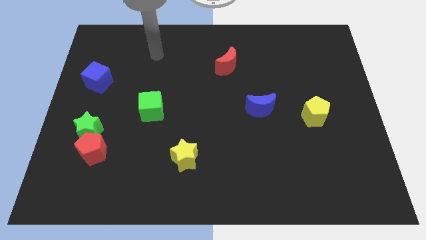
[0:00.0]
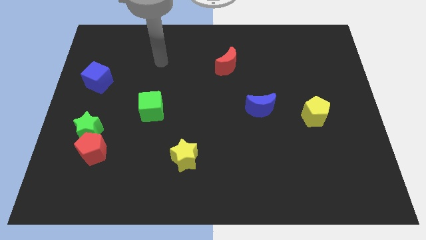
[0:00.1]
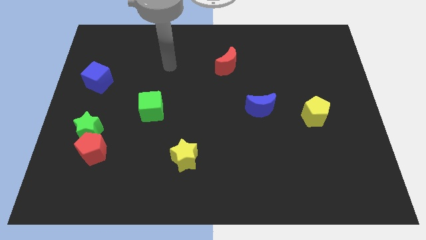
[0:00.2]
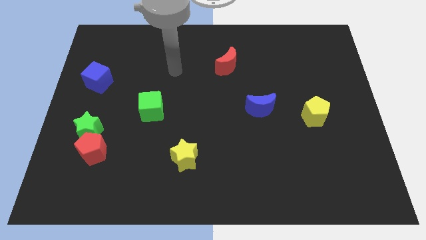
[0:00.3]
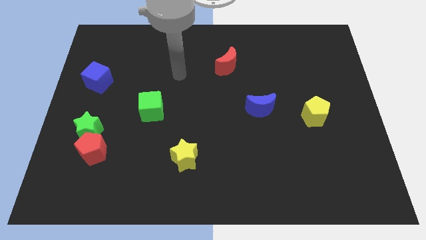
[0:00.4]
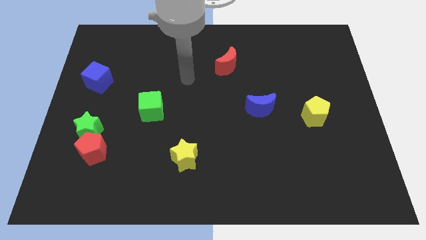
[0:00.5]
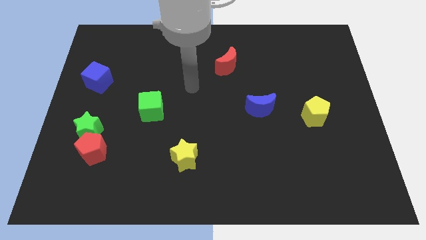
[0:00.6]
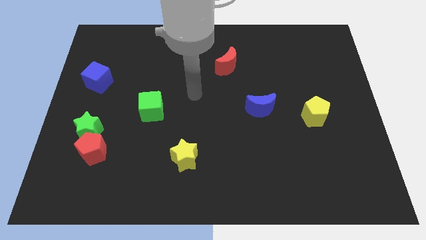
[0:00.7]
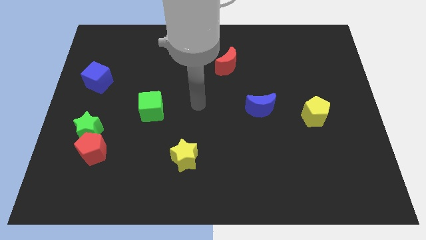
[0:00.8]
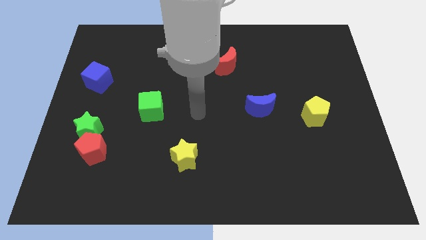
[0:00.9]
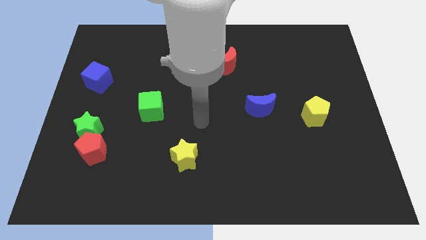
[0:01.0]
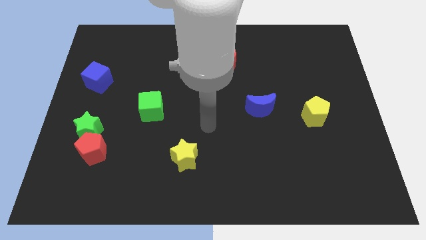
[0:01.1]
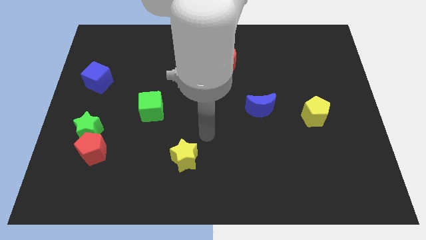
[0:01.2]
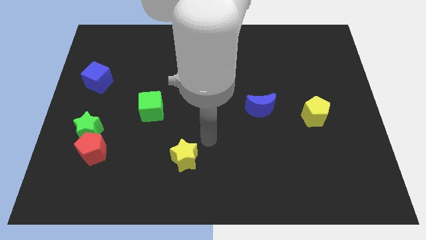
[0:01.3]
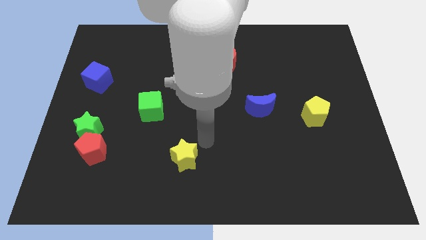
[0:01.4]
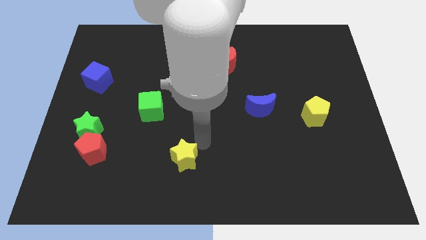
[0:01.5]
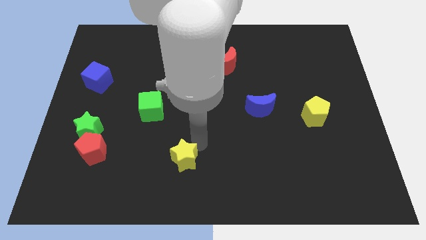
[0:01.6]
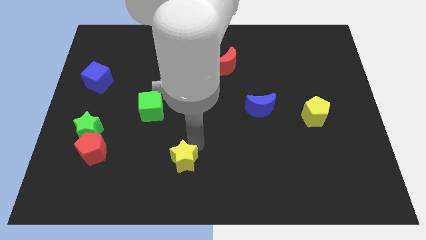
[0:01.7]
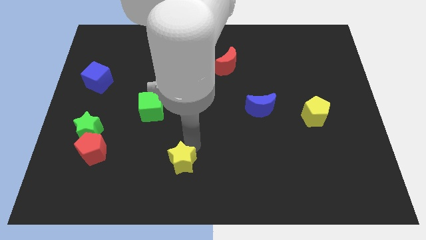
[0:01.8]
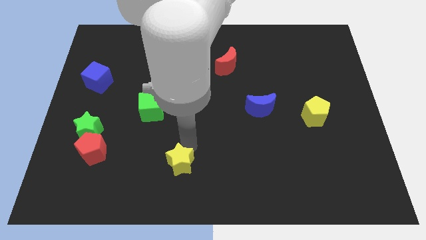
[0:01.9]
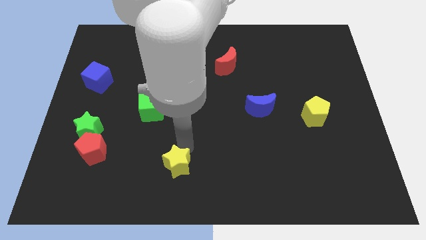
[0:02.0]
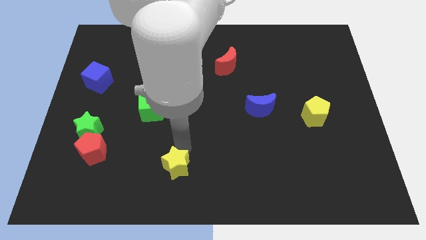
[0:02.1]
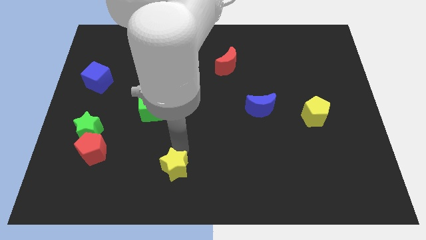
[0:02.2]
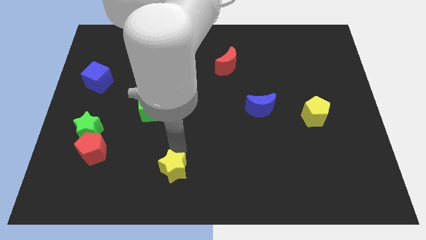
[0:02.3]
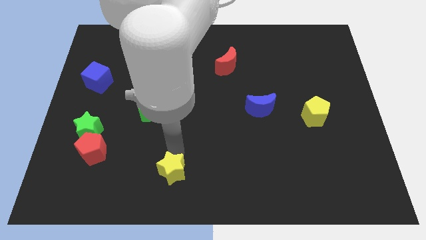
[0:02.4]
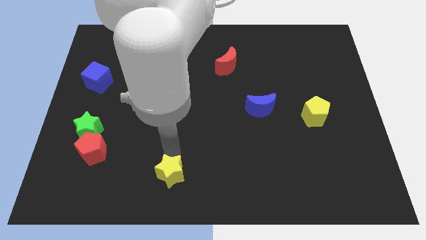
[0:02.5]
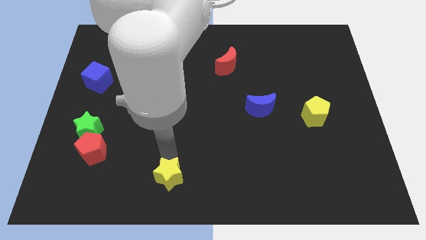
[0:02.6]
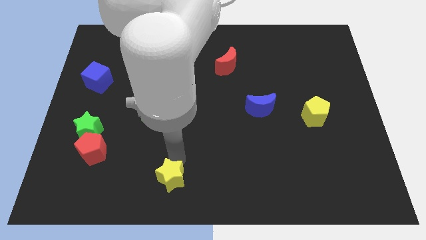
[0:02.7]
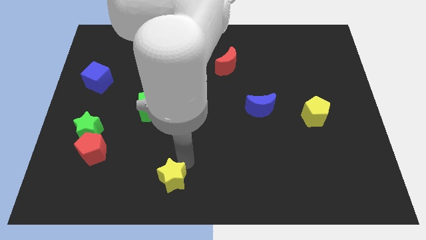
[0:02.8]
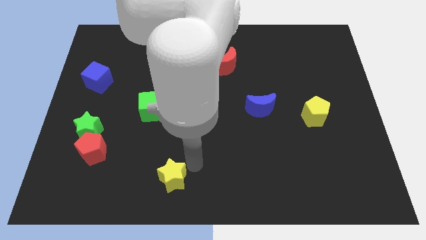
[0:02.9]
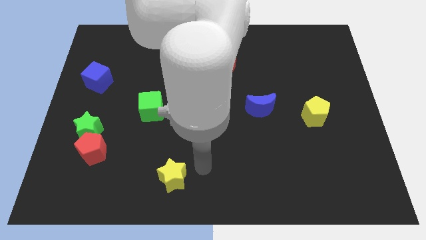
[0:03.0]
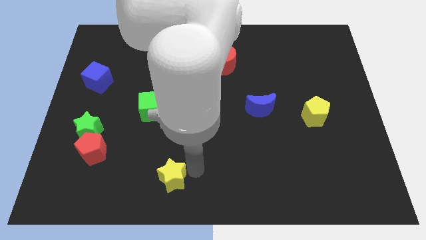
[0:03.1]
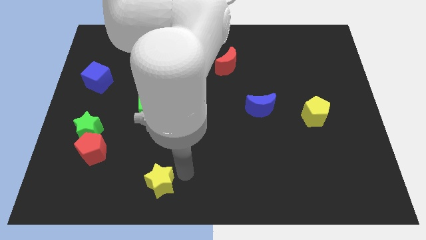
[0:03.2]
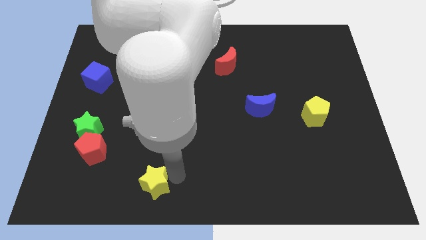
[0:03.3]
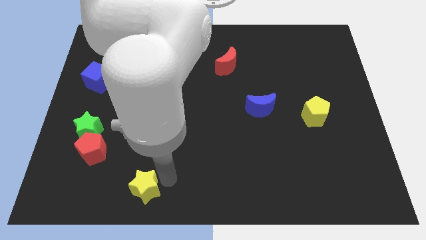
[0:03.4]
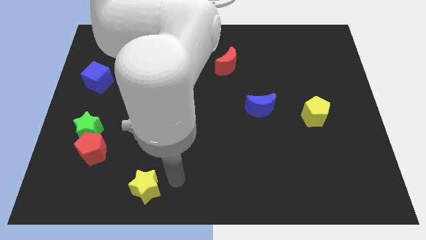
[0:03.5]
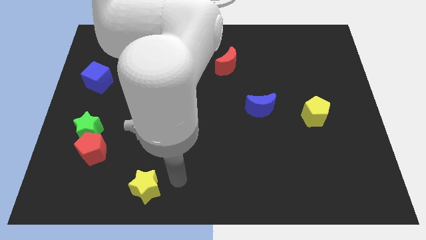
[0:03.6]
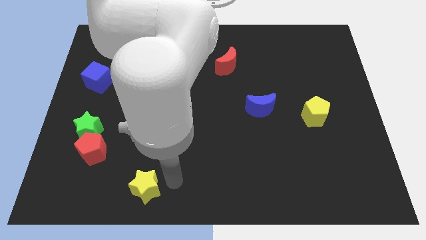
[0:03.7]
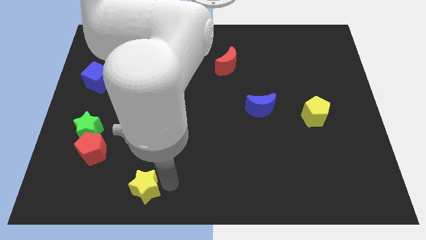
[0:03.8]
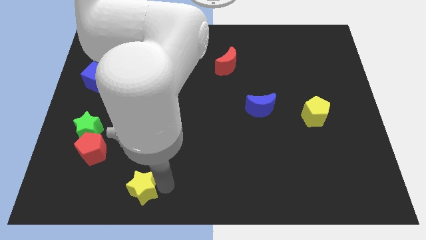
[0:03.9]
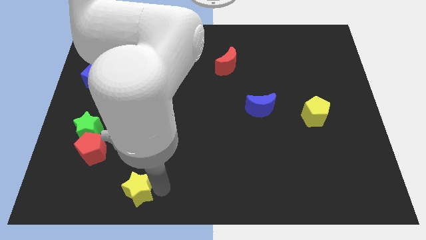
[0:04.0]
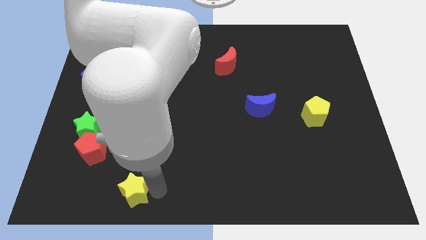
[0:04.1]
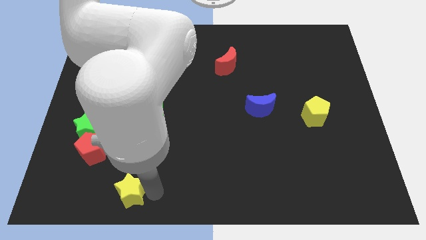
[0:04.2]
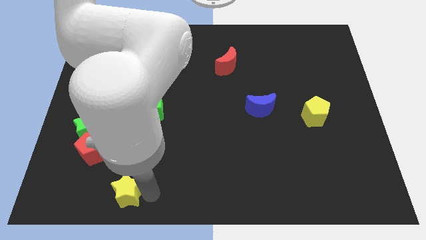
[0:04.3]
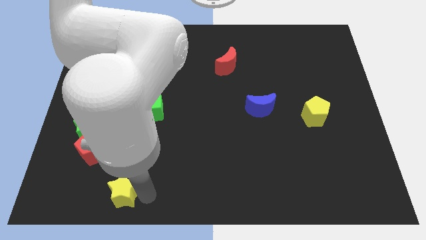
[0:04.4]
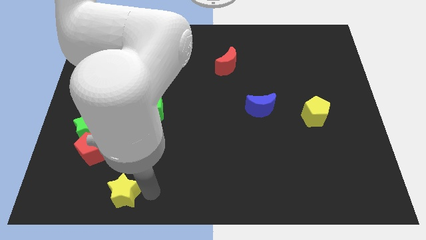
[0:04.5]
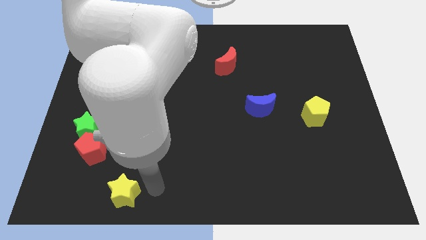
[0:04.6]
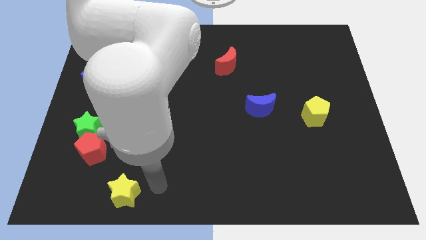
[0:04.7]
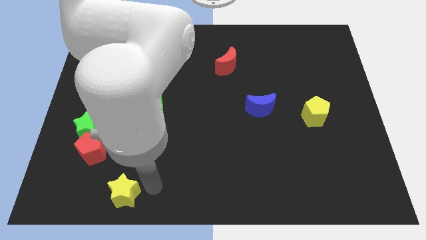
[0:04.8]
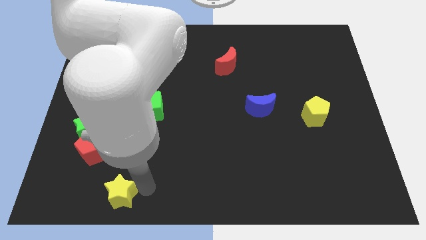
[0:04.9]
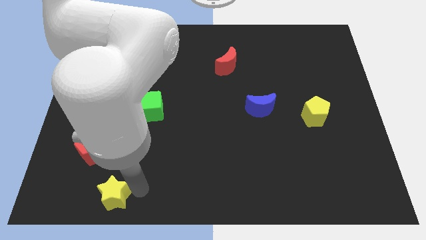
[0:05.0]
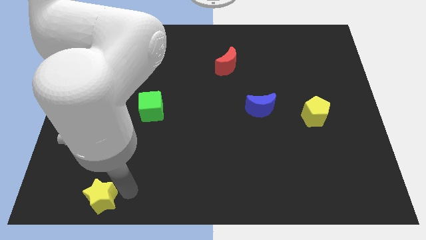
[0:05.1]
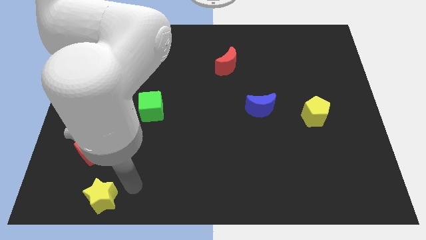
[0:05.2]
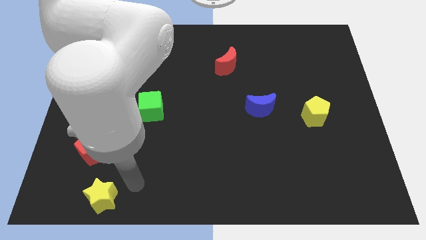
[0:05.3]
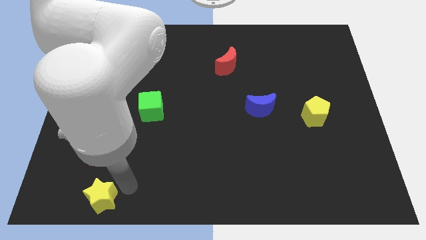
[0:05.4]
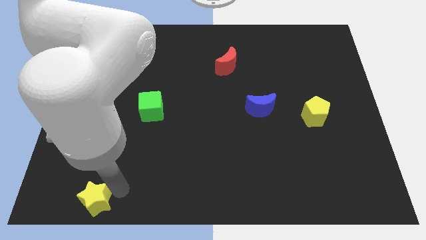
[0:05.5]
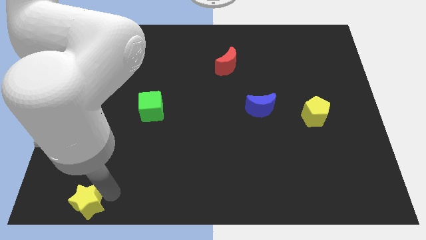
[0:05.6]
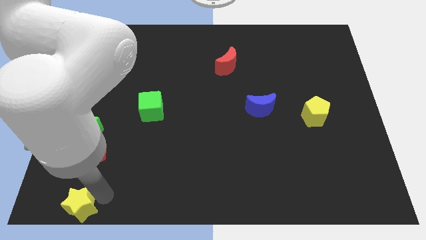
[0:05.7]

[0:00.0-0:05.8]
put the yellow star to the bottom left corner

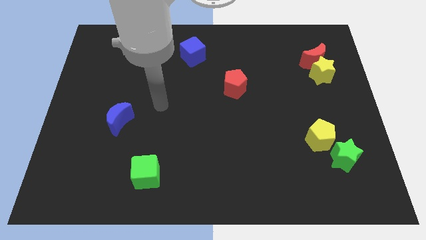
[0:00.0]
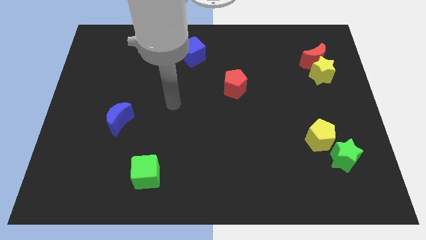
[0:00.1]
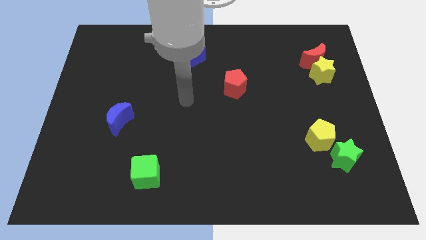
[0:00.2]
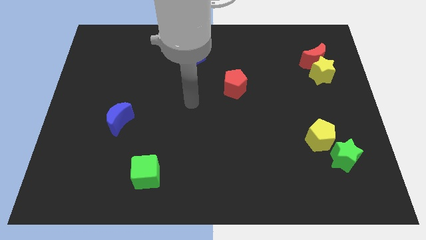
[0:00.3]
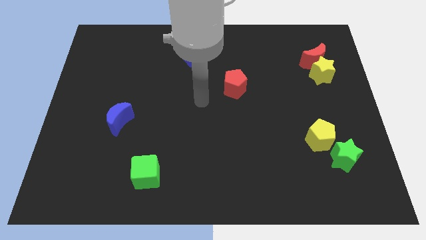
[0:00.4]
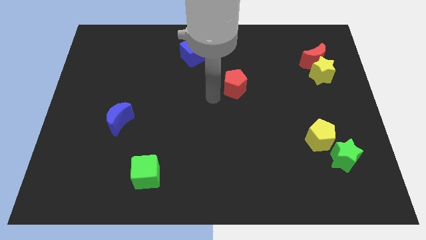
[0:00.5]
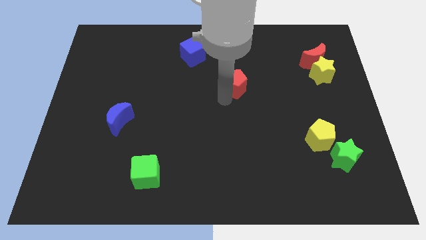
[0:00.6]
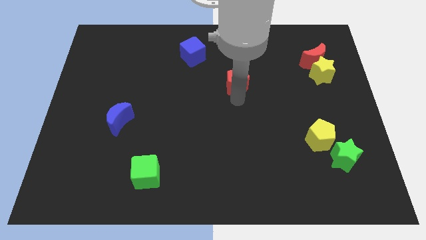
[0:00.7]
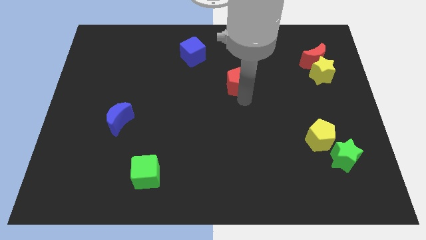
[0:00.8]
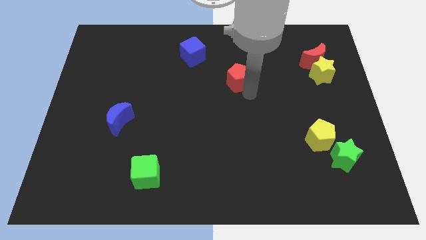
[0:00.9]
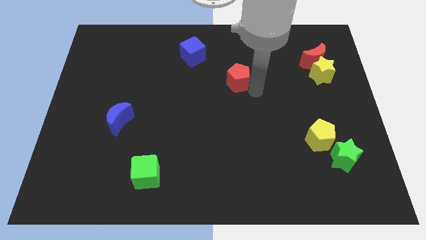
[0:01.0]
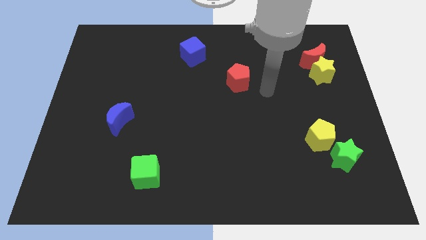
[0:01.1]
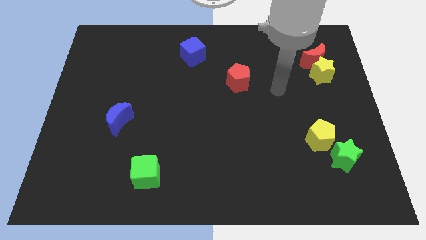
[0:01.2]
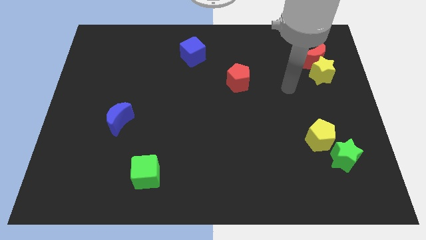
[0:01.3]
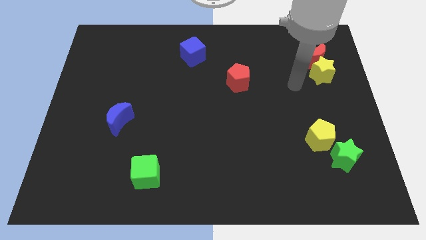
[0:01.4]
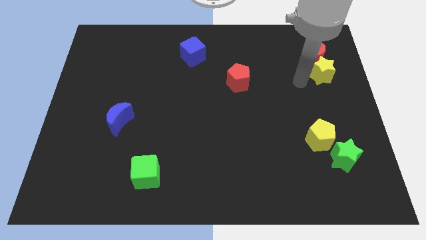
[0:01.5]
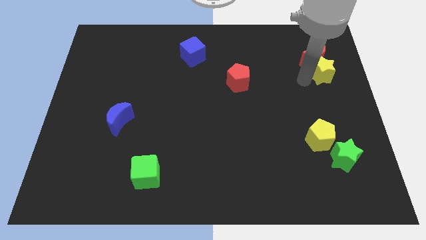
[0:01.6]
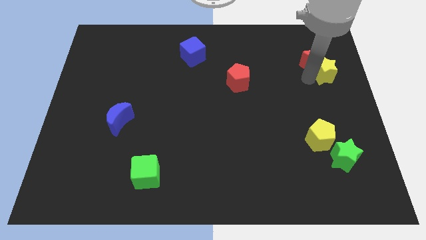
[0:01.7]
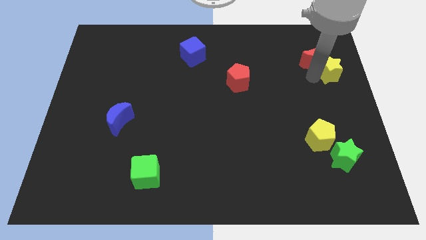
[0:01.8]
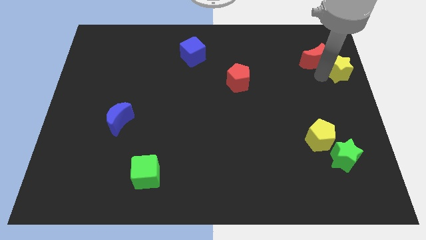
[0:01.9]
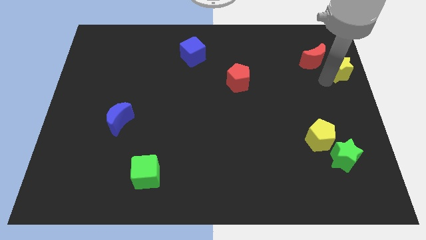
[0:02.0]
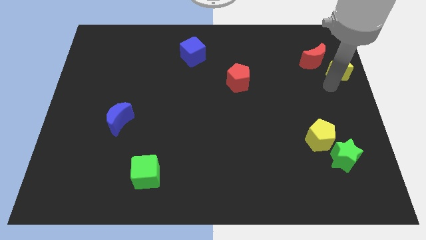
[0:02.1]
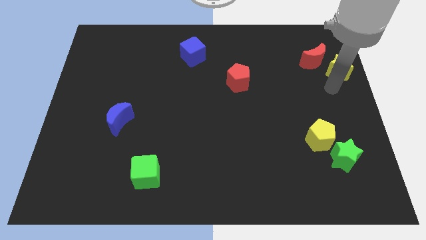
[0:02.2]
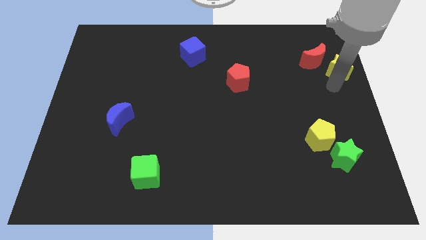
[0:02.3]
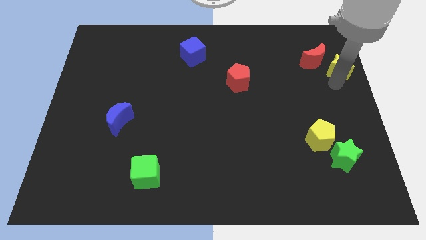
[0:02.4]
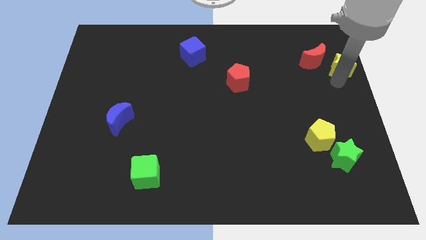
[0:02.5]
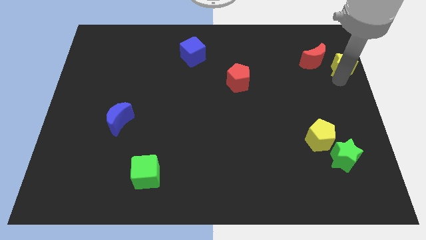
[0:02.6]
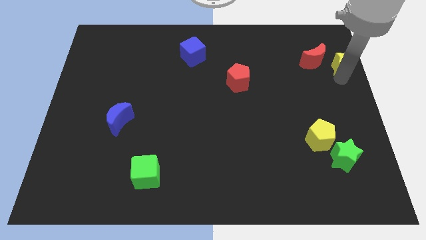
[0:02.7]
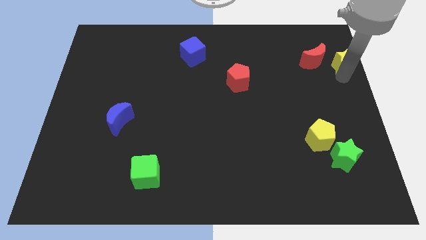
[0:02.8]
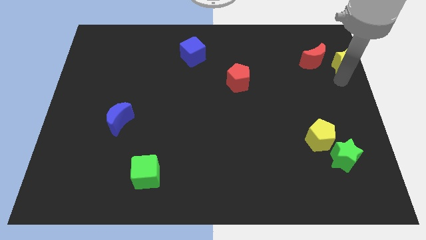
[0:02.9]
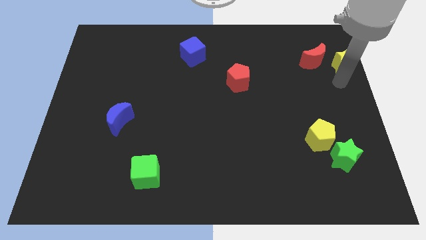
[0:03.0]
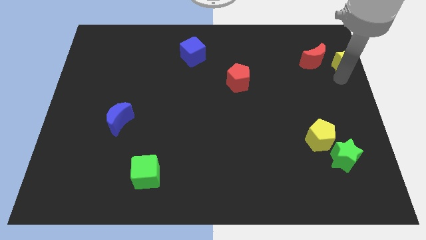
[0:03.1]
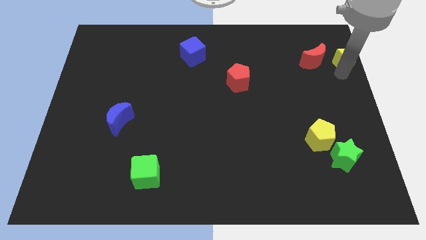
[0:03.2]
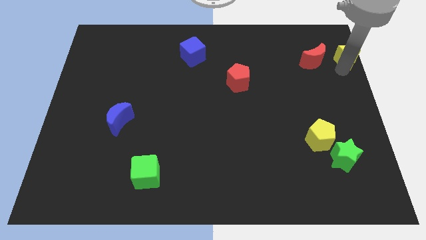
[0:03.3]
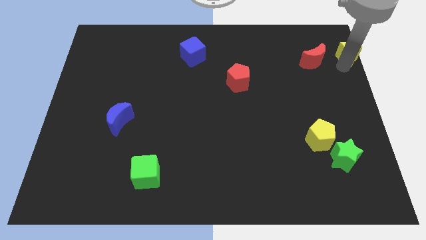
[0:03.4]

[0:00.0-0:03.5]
slide the yellow star to the top right corner
